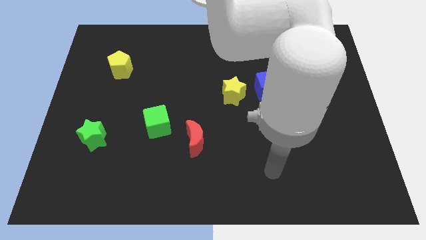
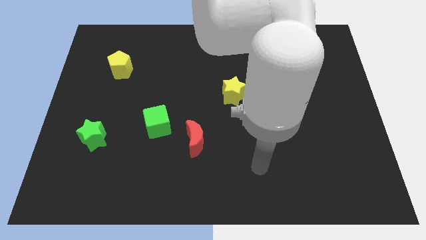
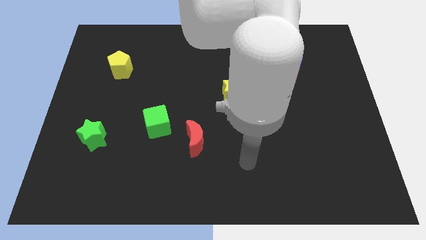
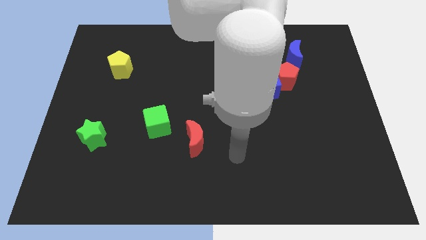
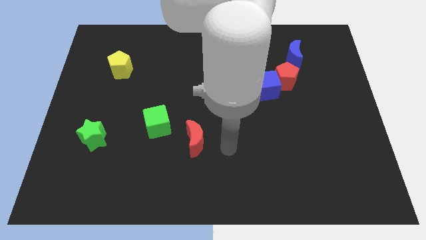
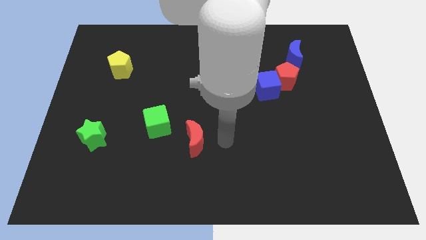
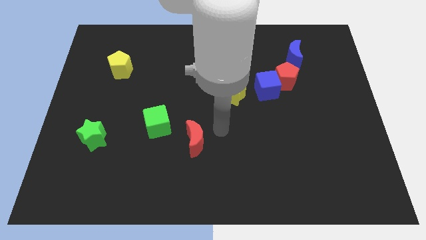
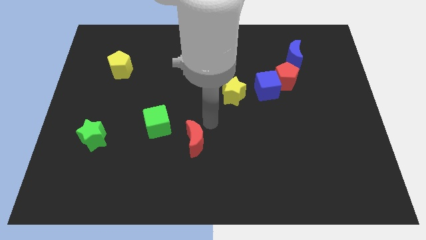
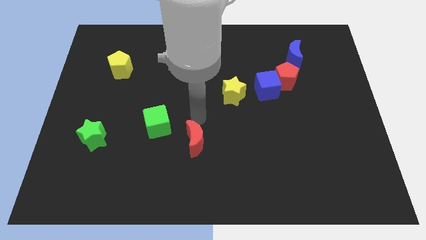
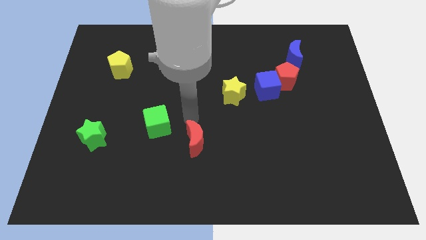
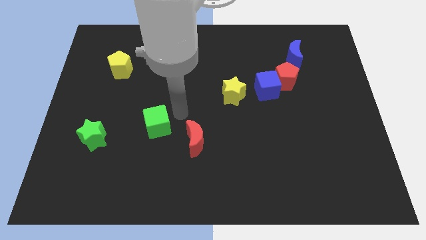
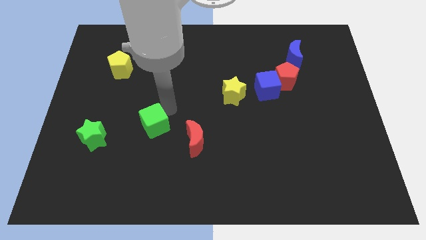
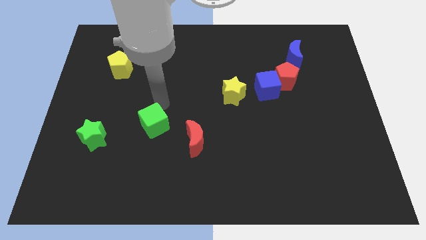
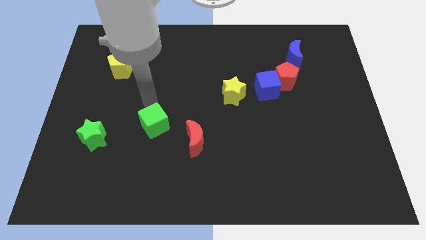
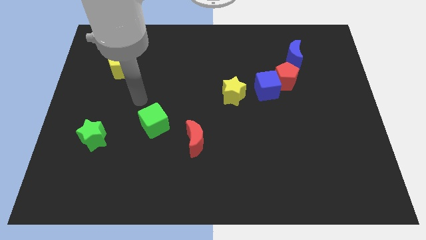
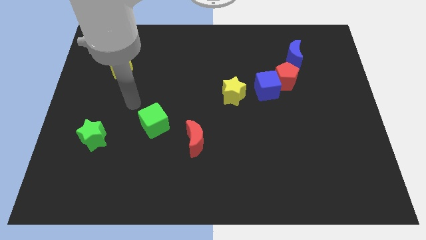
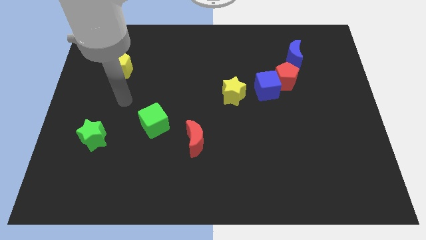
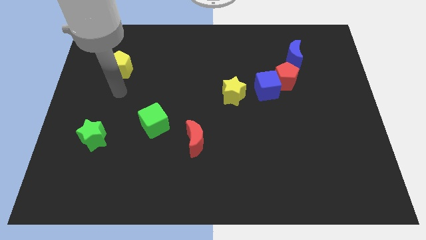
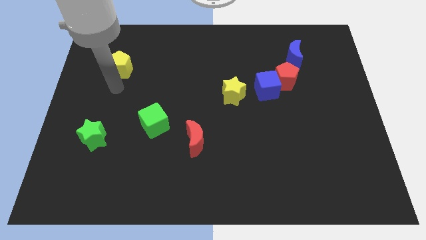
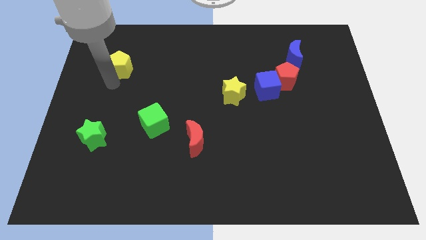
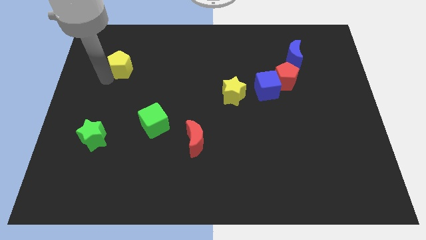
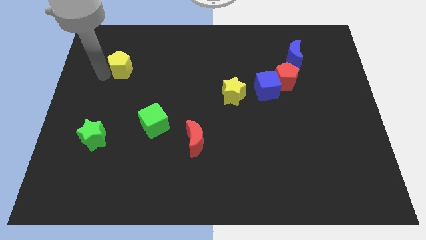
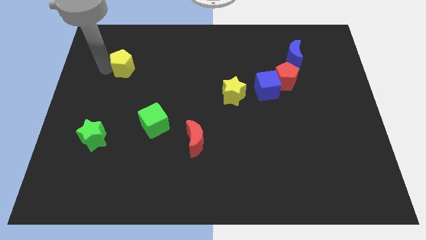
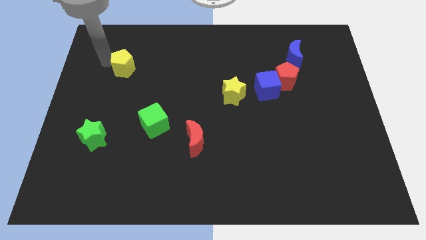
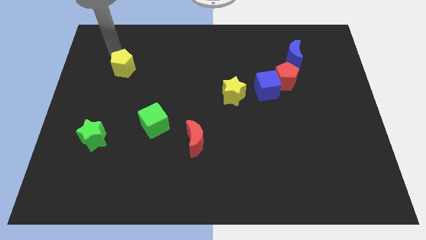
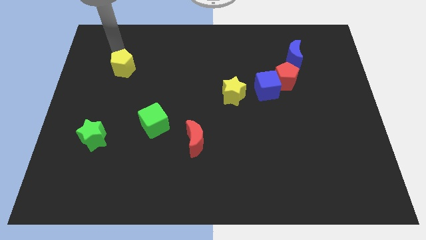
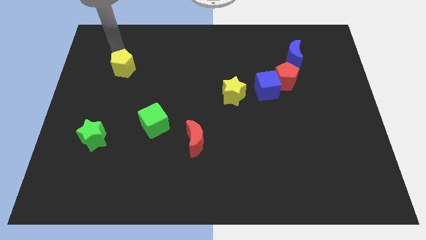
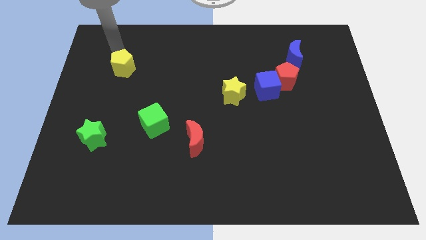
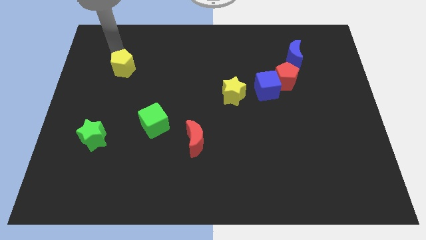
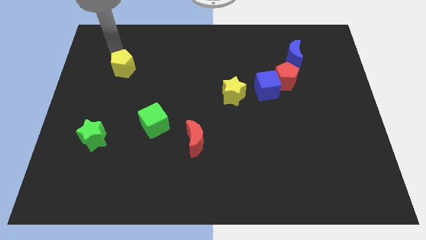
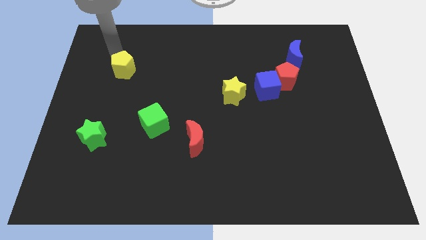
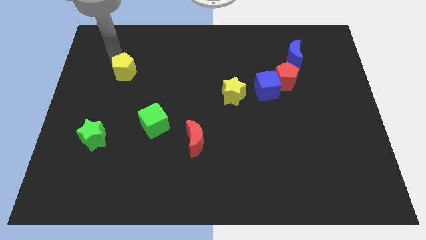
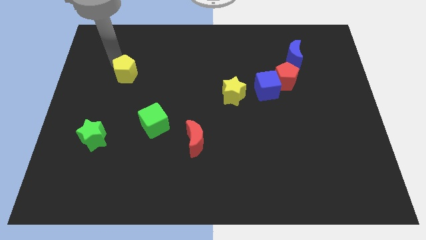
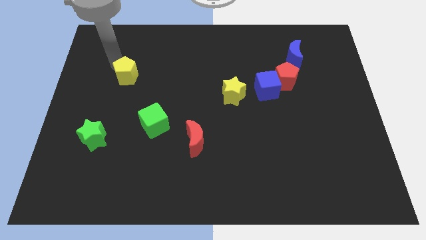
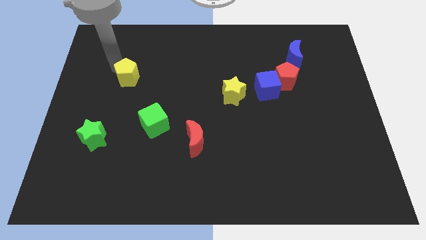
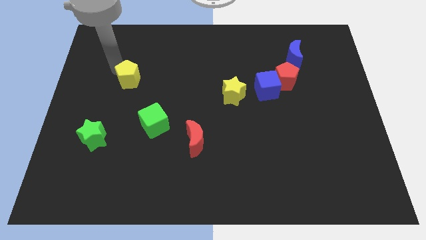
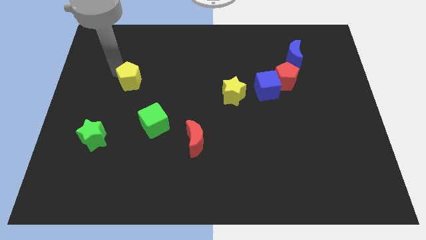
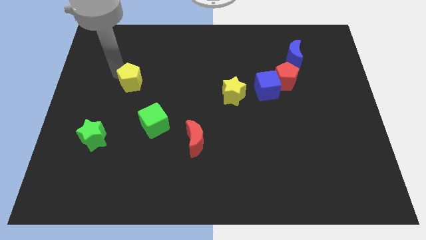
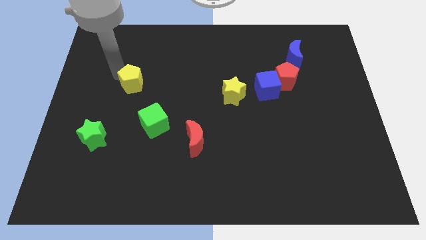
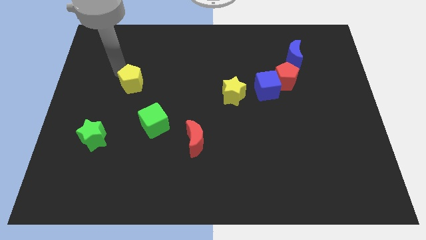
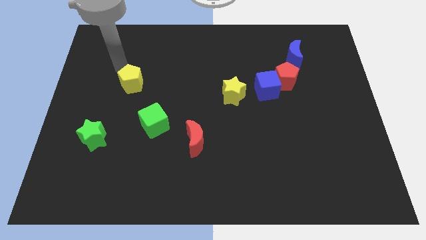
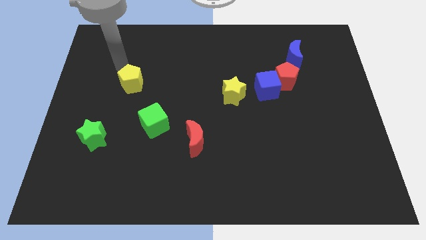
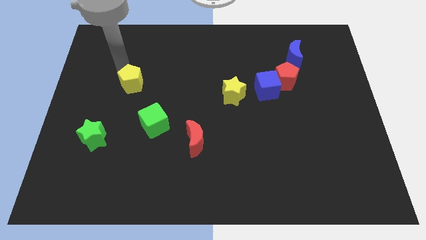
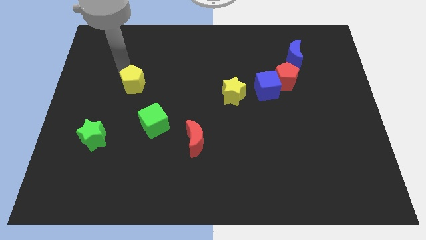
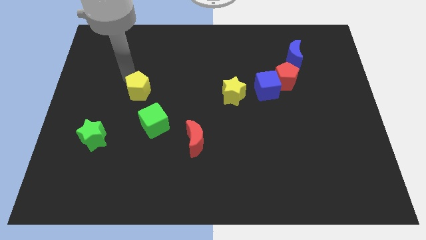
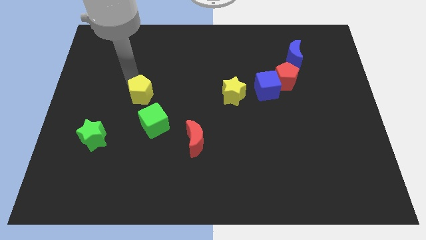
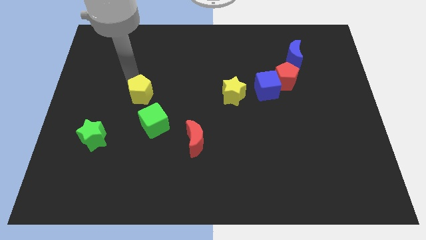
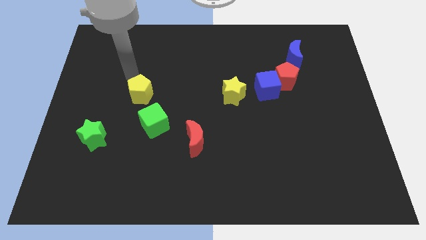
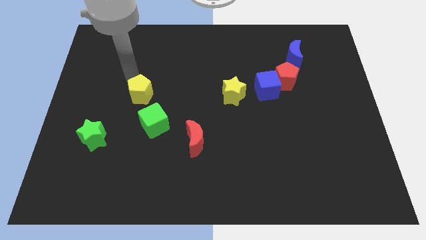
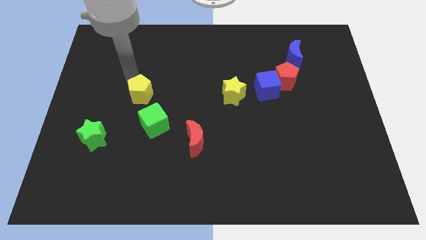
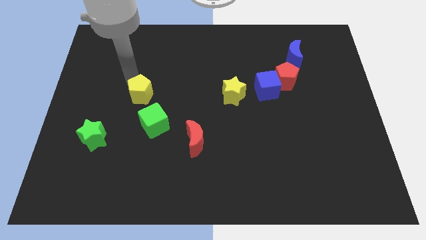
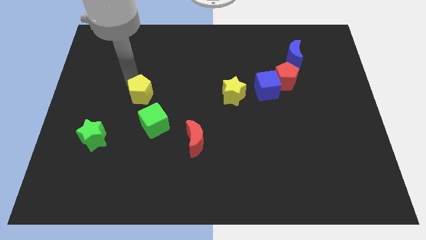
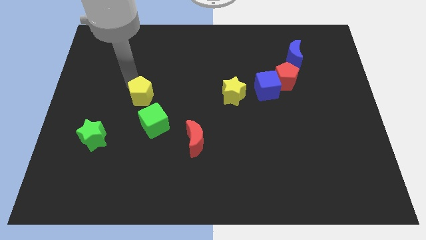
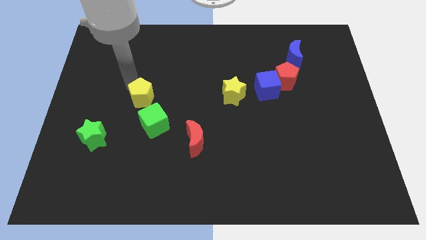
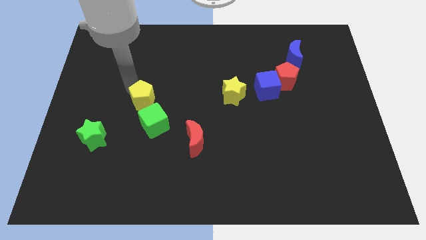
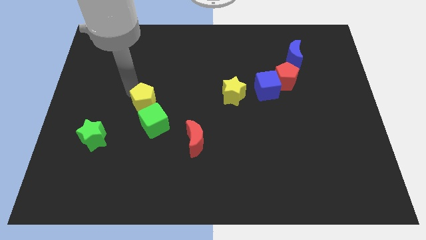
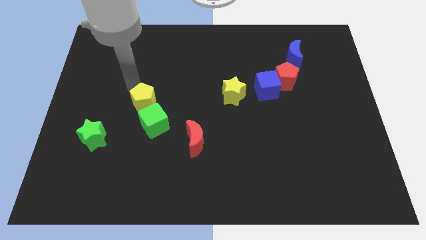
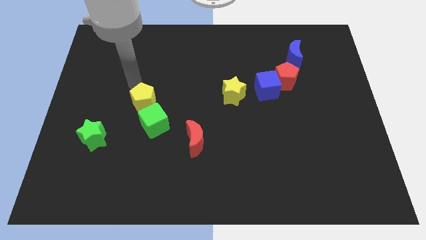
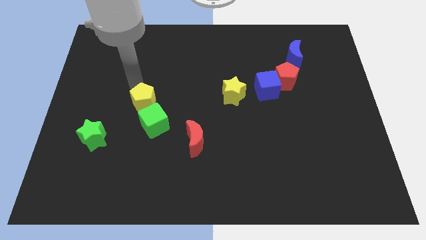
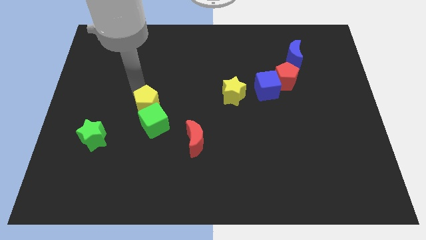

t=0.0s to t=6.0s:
put the yellow pentagon towards the green cube

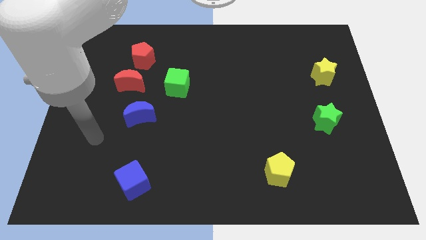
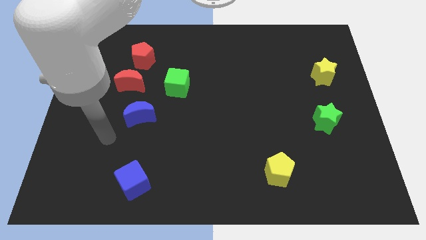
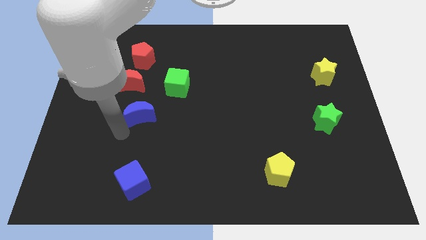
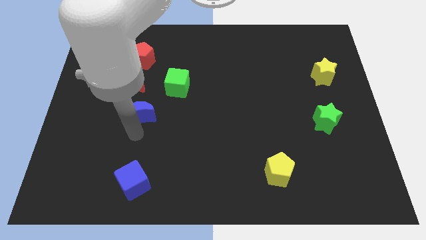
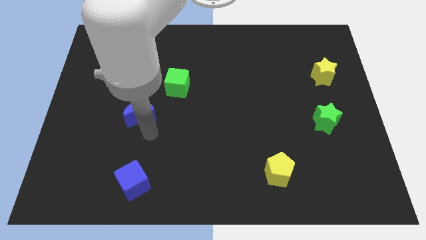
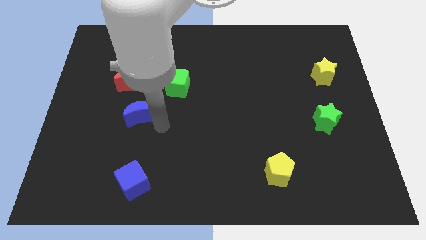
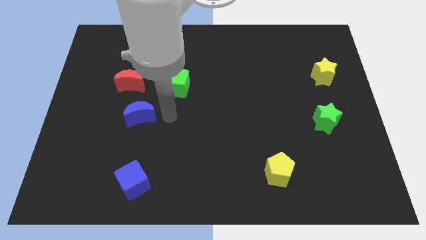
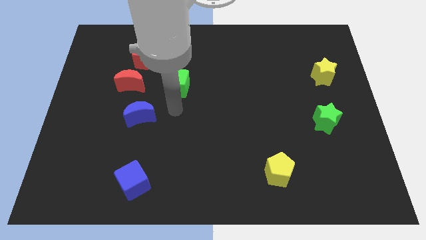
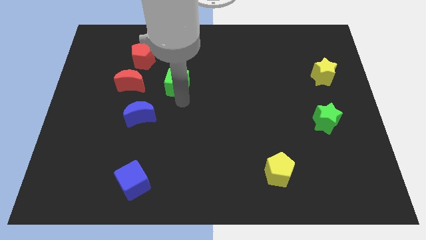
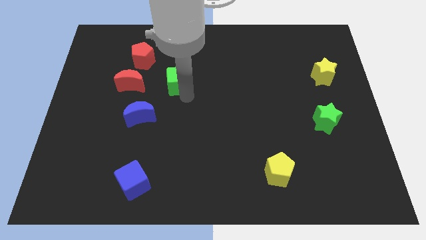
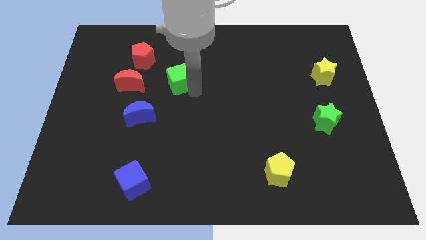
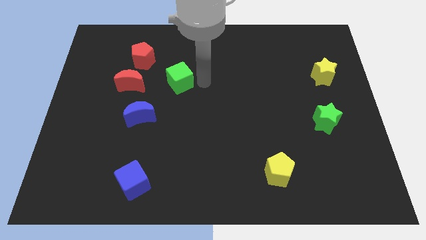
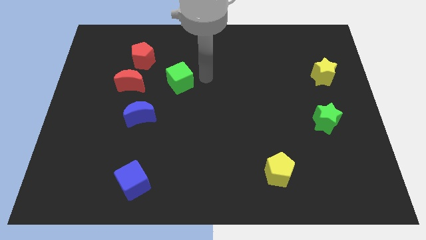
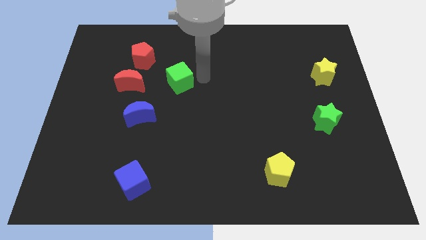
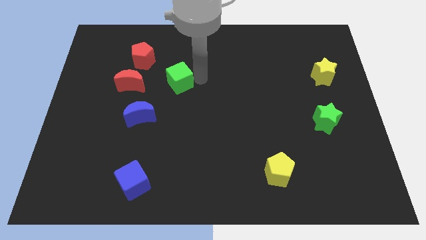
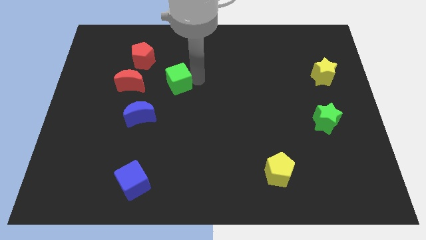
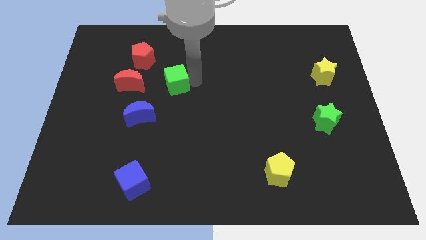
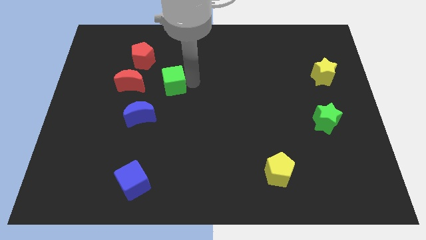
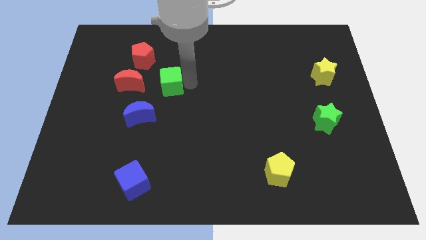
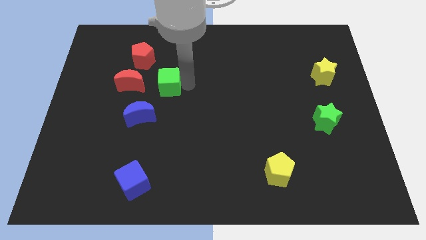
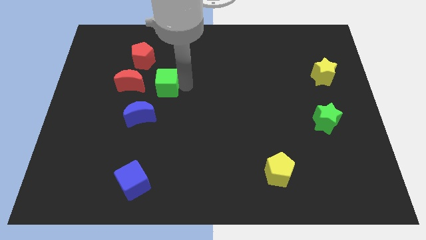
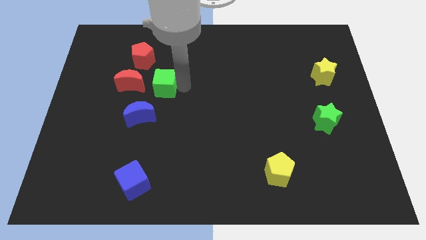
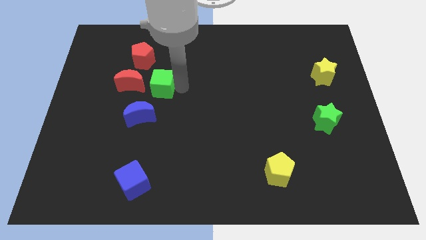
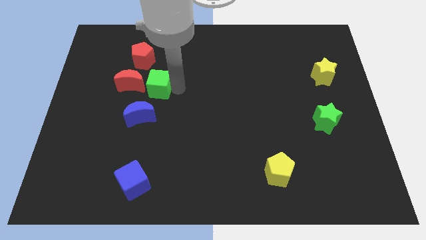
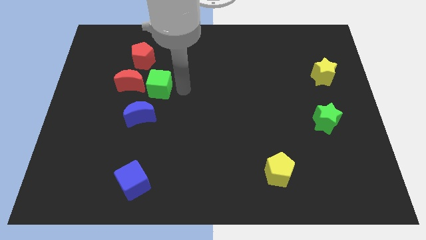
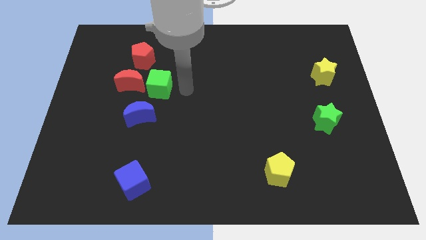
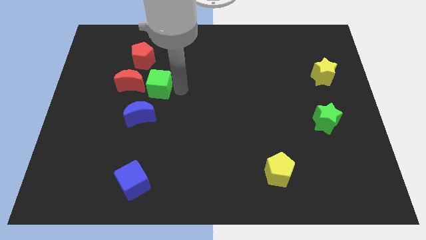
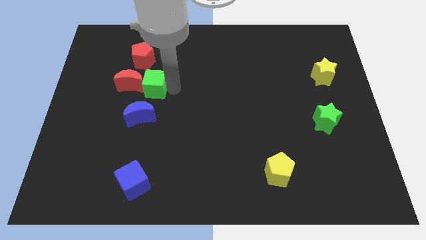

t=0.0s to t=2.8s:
push the green cube next to the red moon
